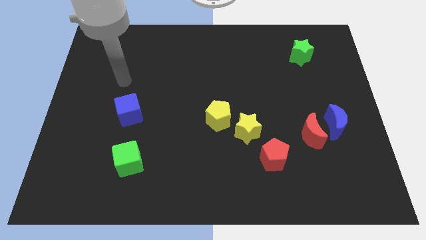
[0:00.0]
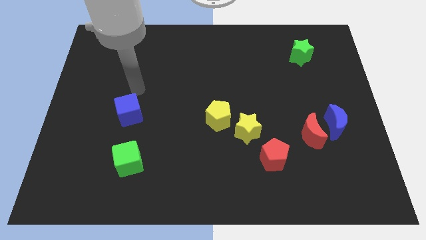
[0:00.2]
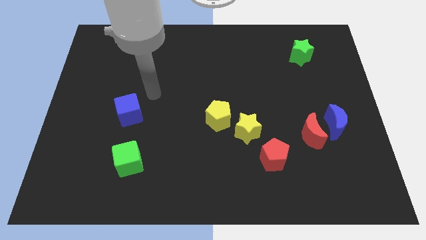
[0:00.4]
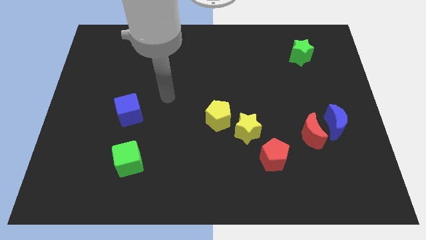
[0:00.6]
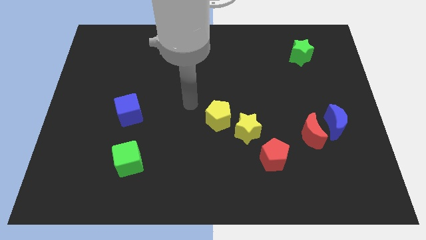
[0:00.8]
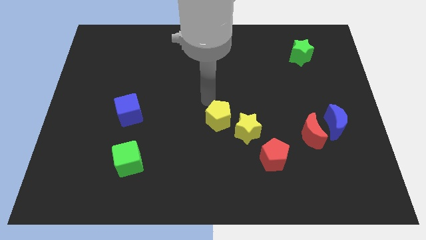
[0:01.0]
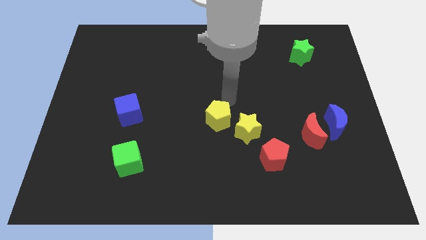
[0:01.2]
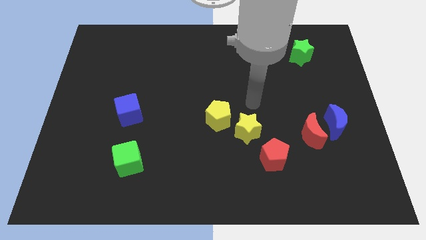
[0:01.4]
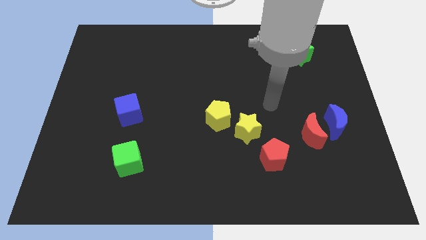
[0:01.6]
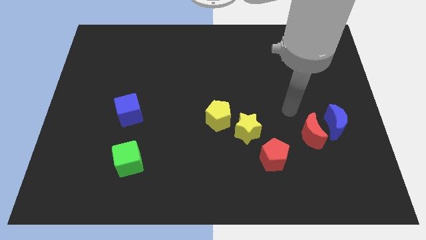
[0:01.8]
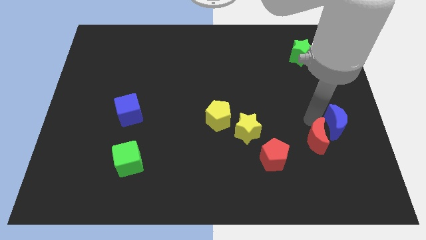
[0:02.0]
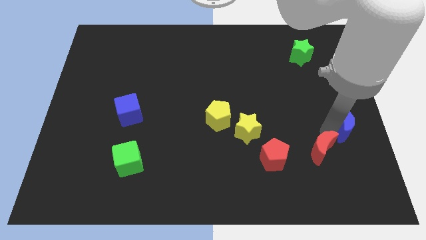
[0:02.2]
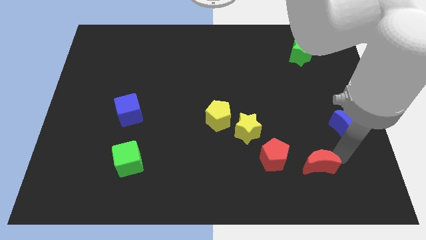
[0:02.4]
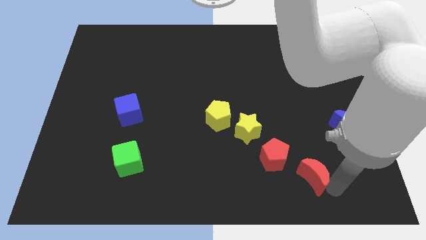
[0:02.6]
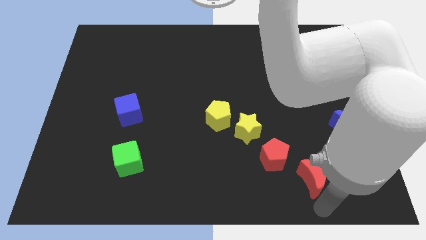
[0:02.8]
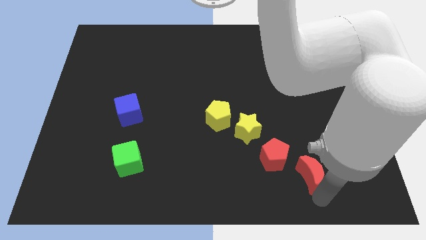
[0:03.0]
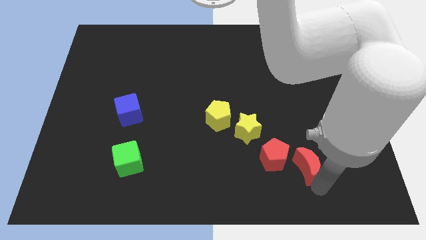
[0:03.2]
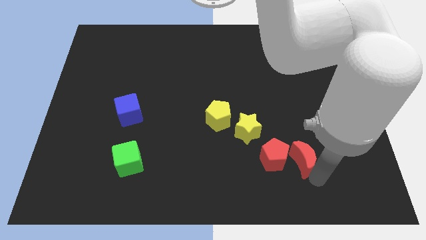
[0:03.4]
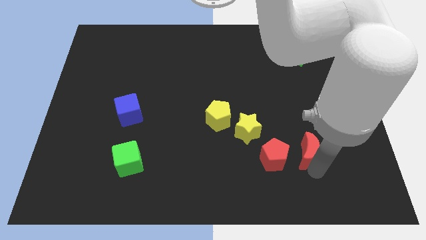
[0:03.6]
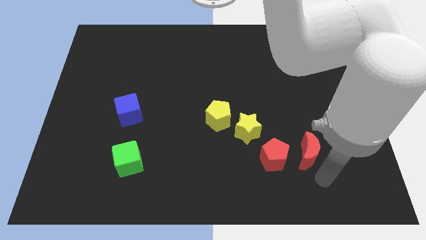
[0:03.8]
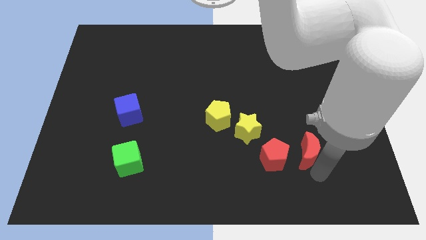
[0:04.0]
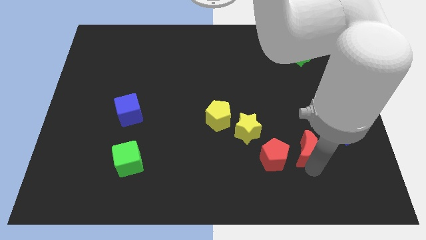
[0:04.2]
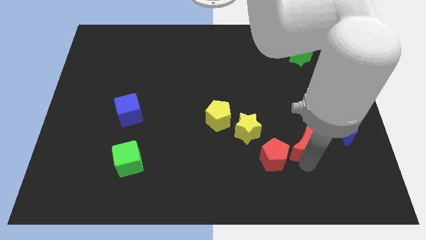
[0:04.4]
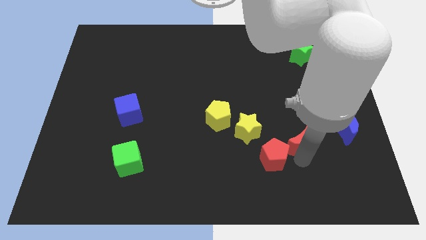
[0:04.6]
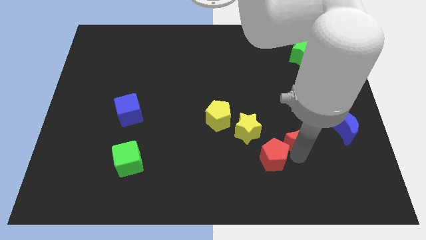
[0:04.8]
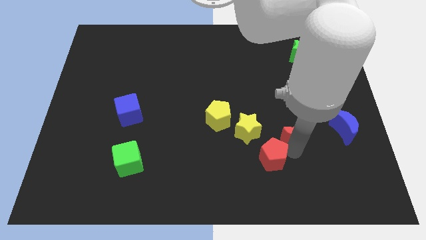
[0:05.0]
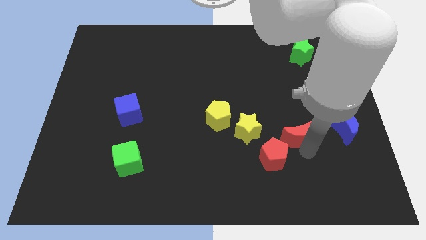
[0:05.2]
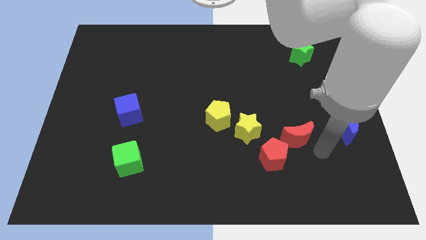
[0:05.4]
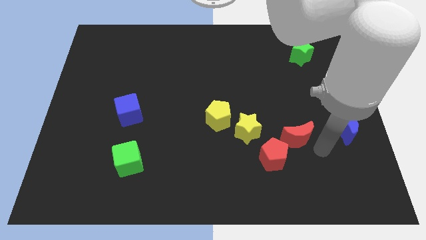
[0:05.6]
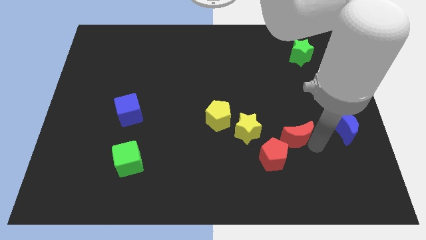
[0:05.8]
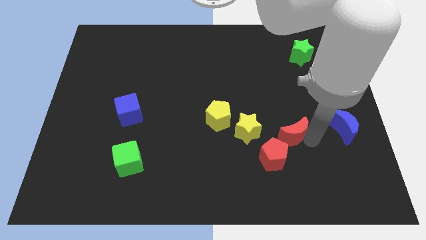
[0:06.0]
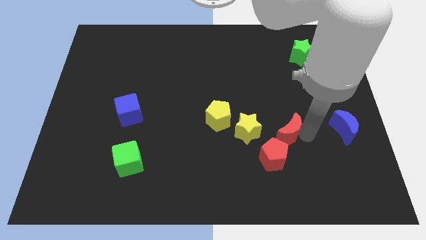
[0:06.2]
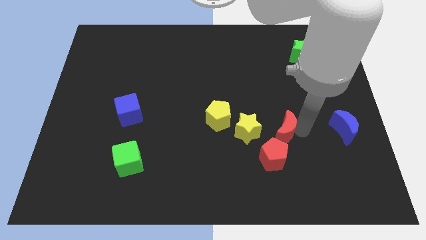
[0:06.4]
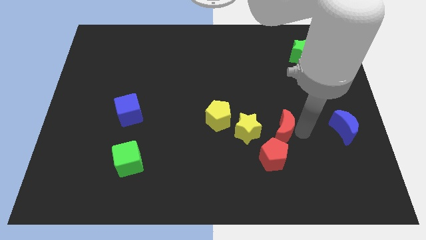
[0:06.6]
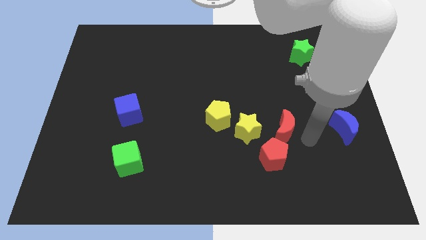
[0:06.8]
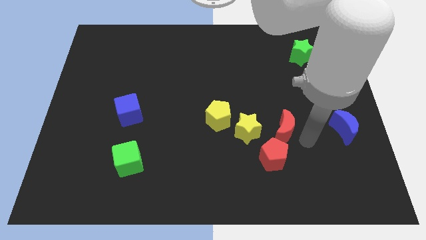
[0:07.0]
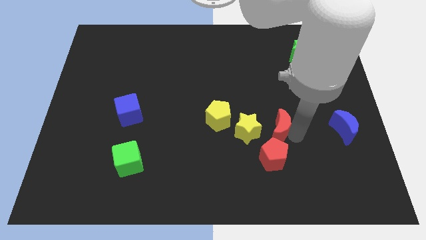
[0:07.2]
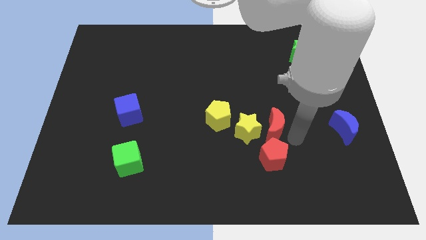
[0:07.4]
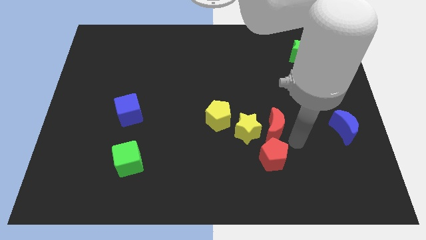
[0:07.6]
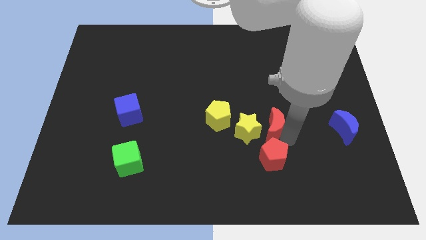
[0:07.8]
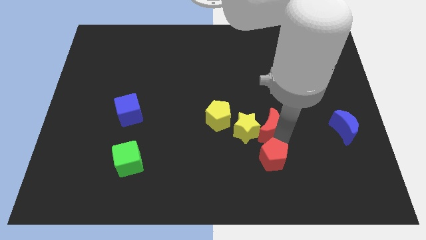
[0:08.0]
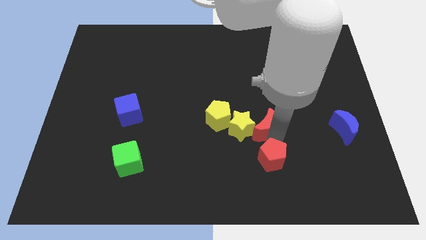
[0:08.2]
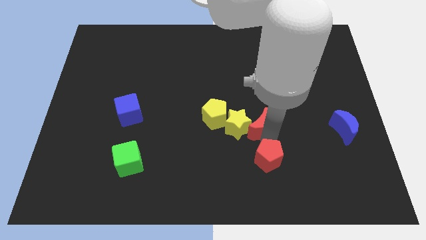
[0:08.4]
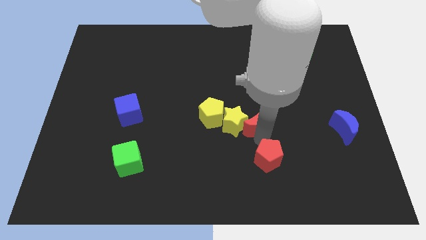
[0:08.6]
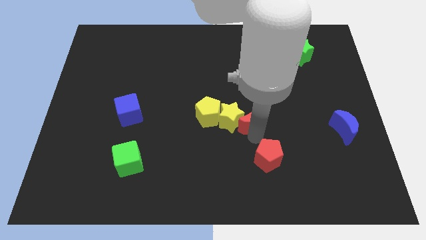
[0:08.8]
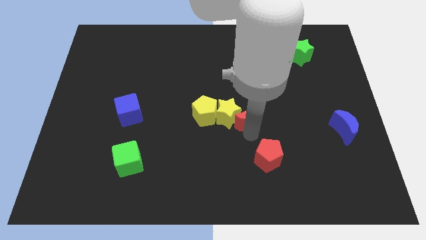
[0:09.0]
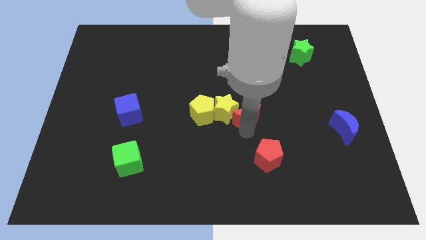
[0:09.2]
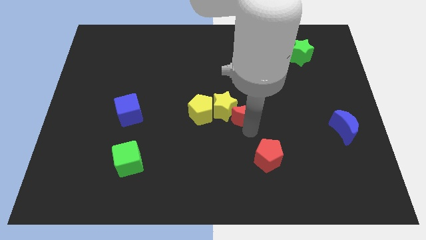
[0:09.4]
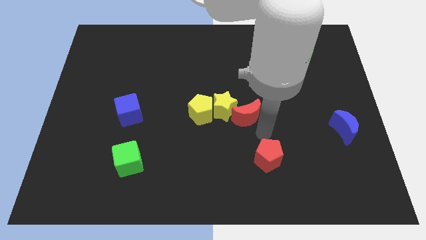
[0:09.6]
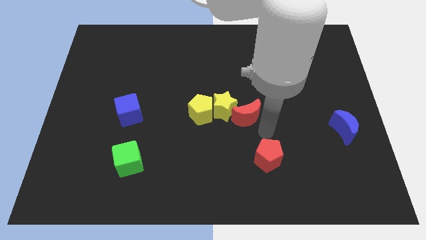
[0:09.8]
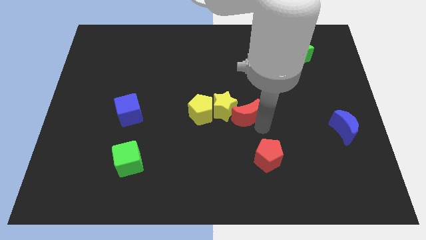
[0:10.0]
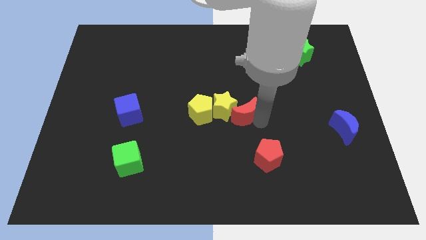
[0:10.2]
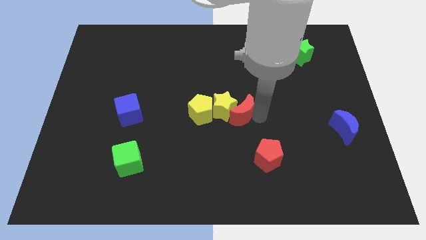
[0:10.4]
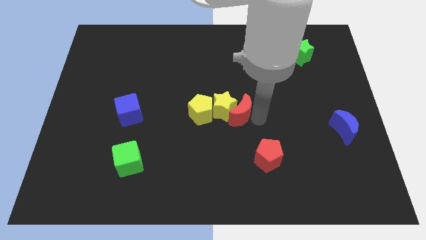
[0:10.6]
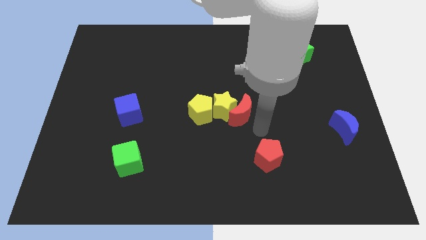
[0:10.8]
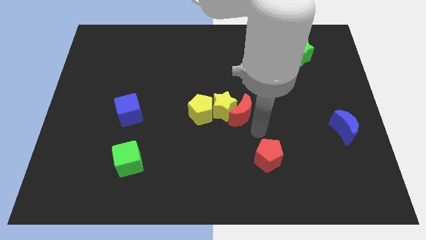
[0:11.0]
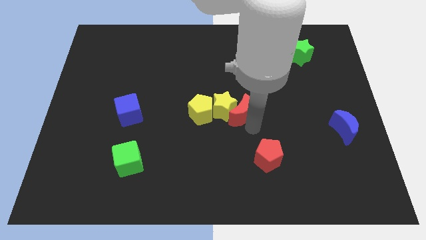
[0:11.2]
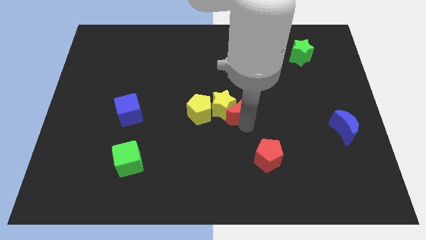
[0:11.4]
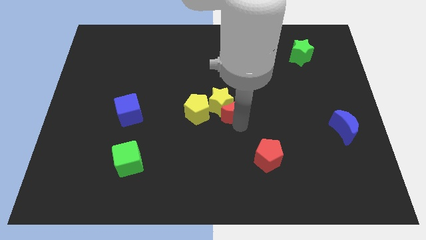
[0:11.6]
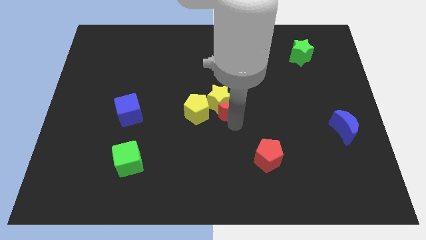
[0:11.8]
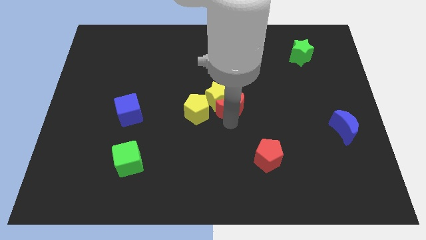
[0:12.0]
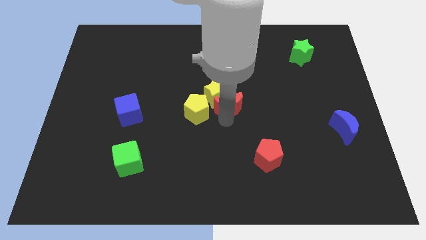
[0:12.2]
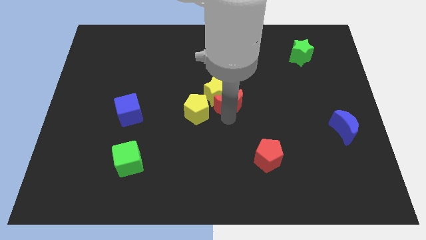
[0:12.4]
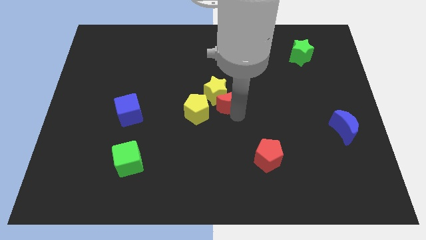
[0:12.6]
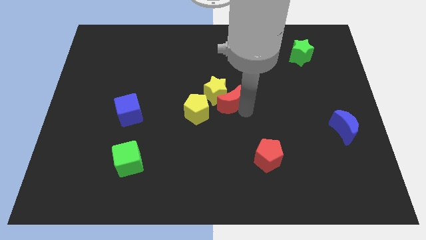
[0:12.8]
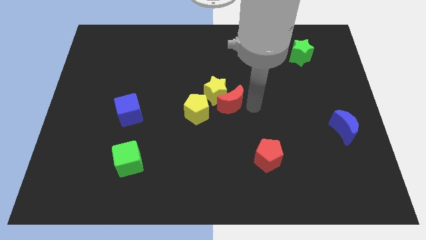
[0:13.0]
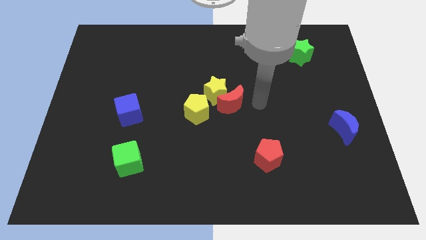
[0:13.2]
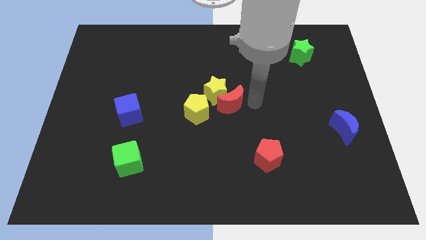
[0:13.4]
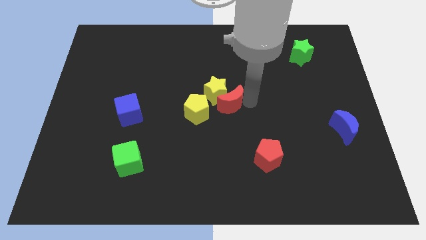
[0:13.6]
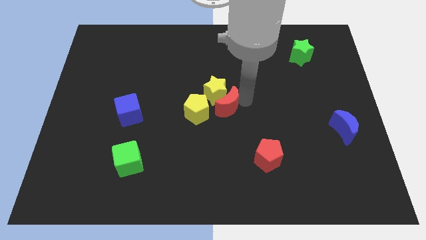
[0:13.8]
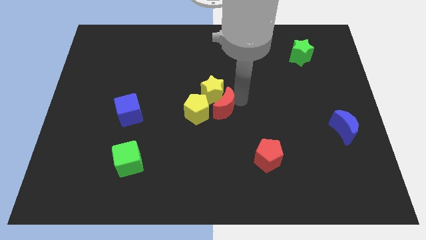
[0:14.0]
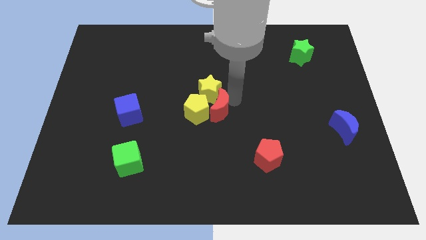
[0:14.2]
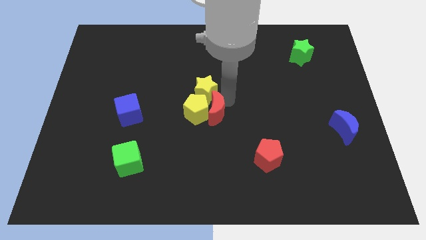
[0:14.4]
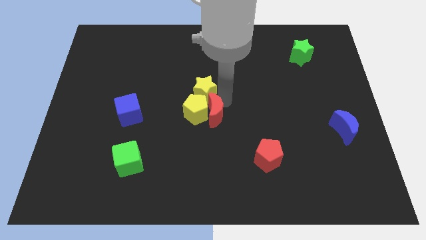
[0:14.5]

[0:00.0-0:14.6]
push the red moon left

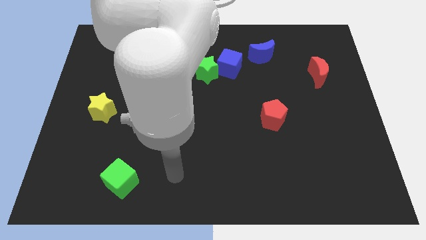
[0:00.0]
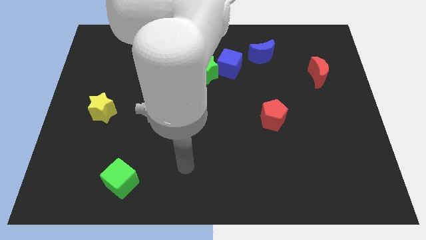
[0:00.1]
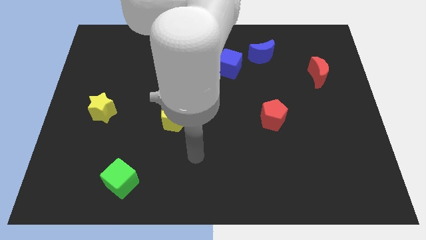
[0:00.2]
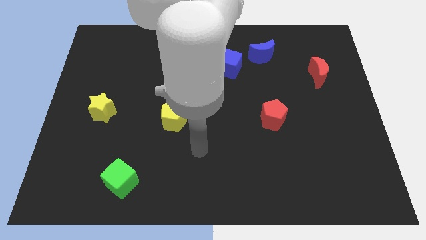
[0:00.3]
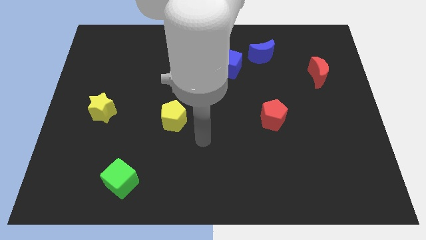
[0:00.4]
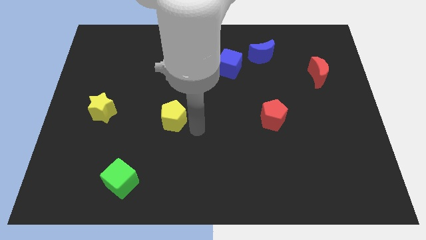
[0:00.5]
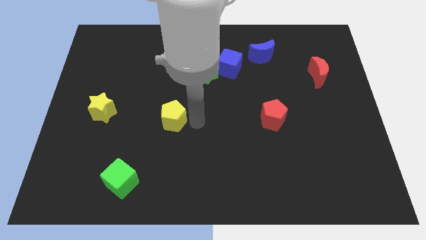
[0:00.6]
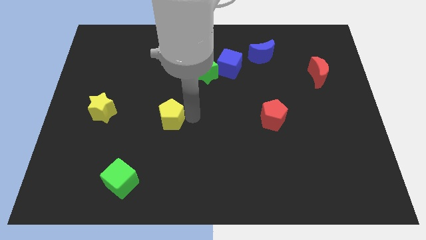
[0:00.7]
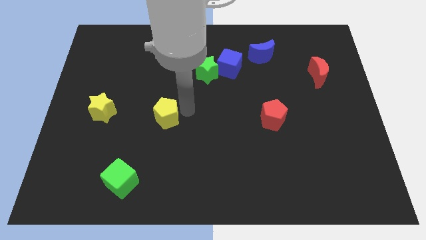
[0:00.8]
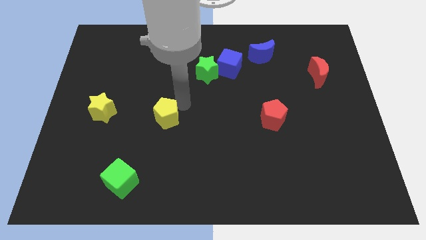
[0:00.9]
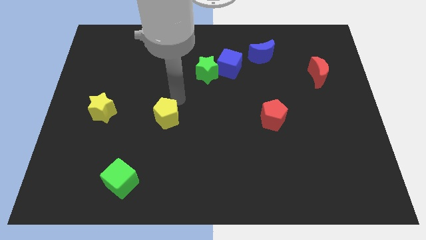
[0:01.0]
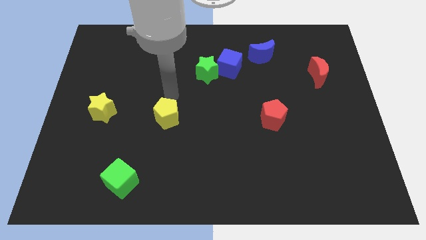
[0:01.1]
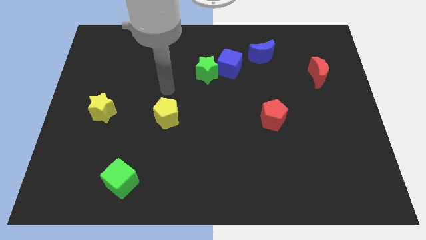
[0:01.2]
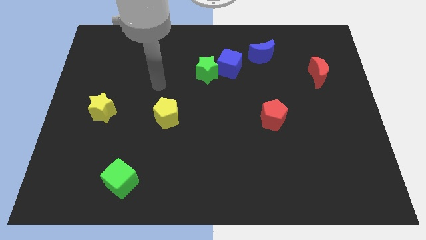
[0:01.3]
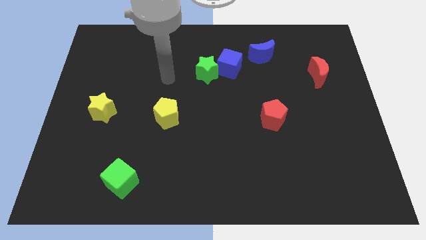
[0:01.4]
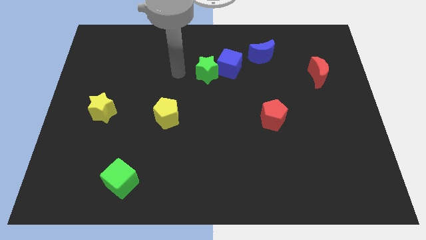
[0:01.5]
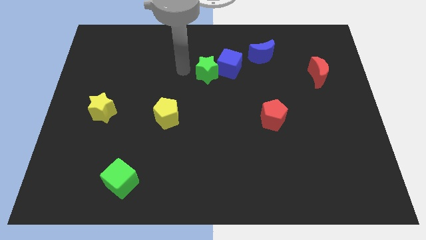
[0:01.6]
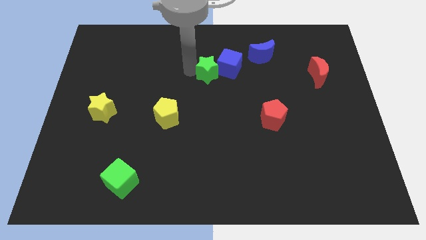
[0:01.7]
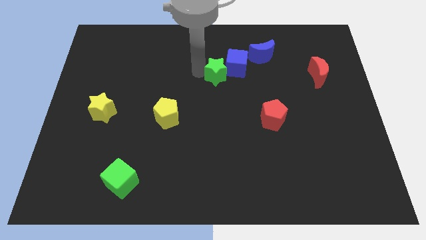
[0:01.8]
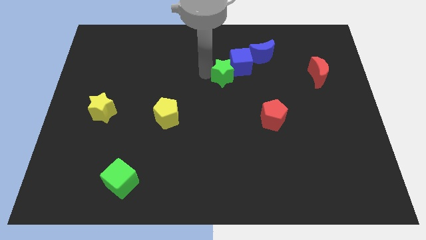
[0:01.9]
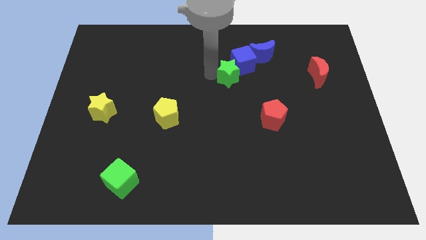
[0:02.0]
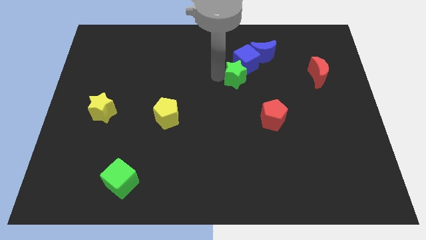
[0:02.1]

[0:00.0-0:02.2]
push the green star slightly right
